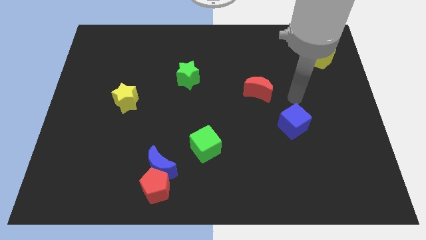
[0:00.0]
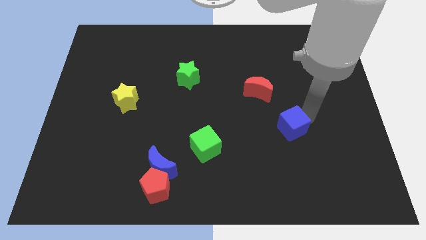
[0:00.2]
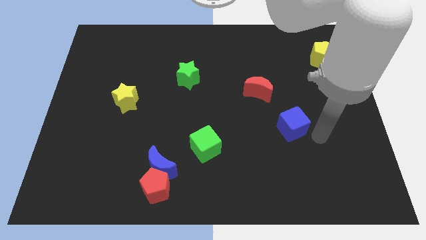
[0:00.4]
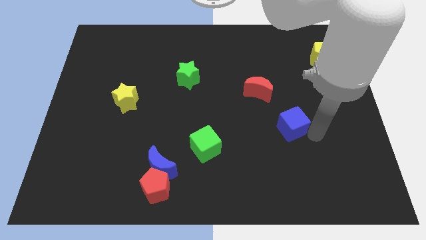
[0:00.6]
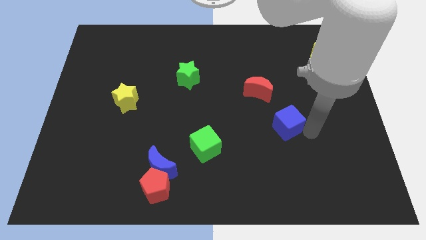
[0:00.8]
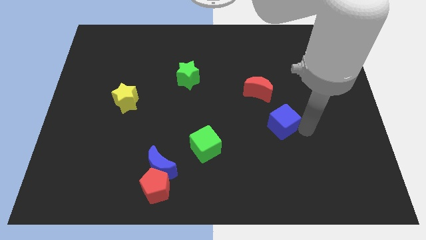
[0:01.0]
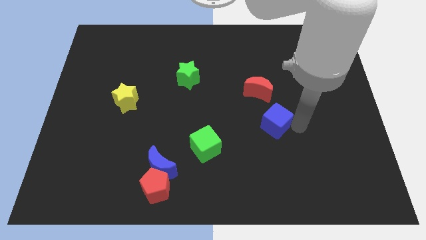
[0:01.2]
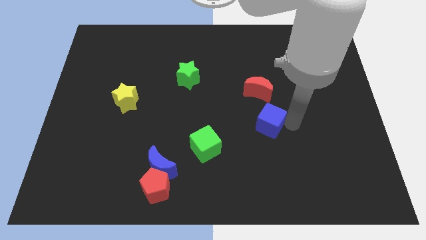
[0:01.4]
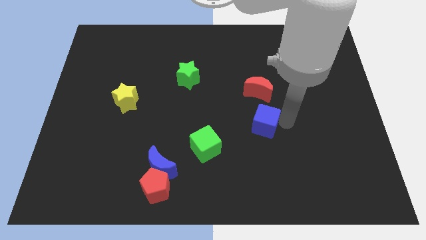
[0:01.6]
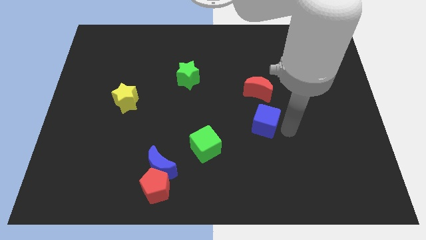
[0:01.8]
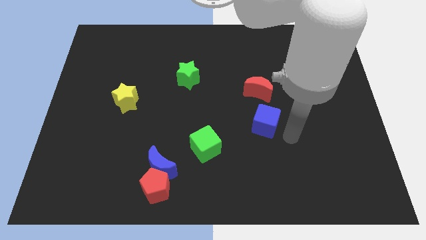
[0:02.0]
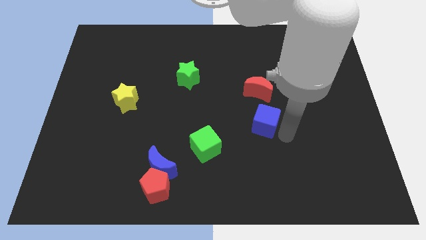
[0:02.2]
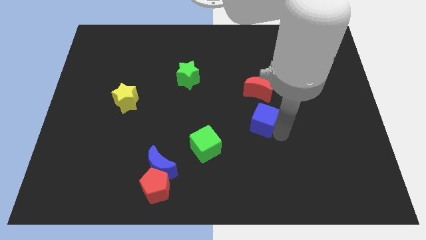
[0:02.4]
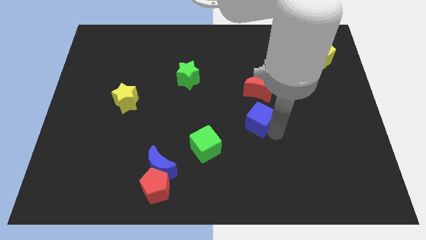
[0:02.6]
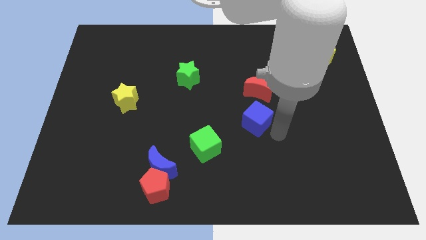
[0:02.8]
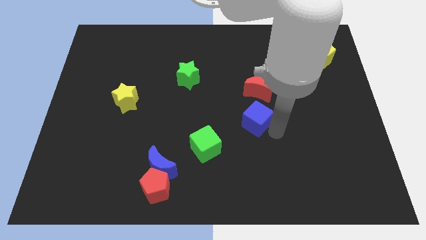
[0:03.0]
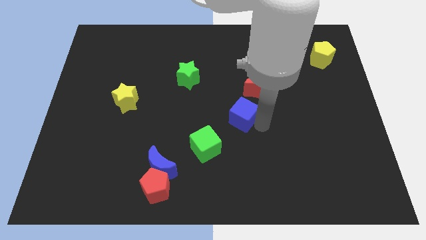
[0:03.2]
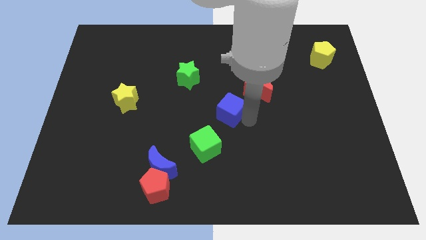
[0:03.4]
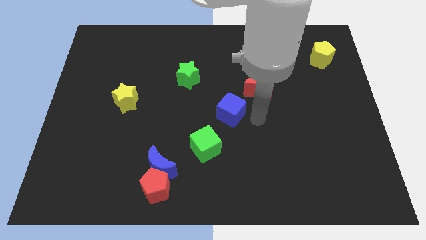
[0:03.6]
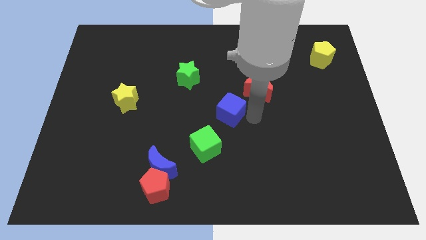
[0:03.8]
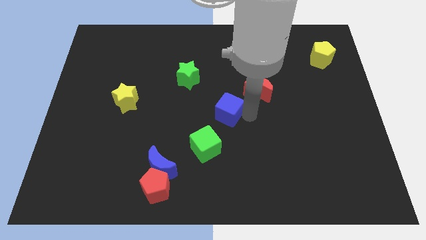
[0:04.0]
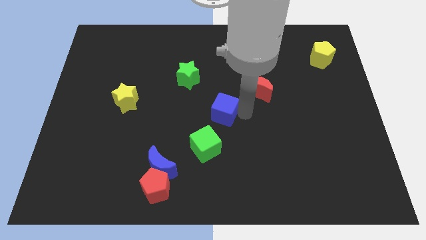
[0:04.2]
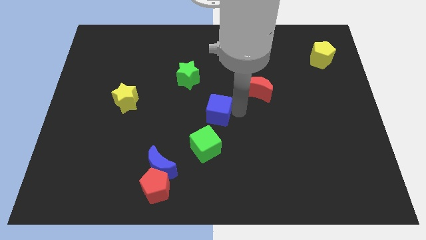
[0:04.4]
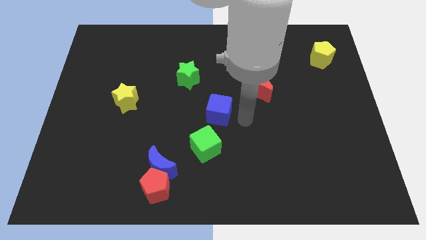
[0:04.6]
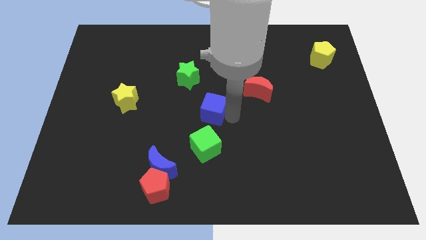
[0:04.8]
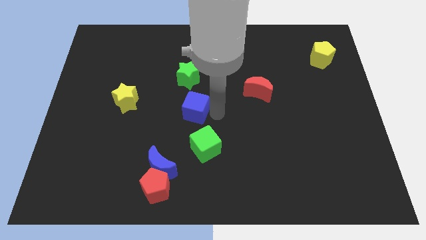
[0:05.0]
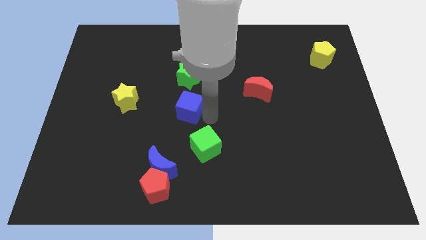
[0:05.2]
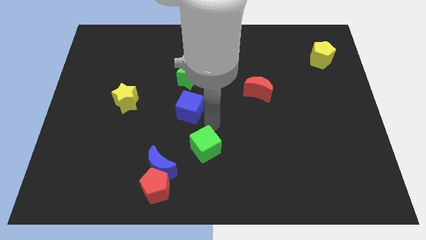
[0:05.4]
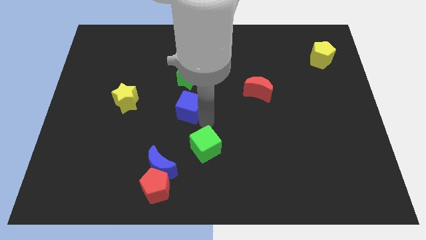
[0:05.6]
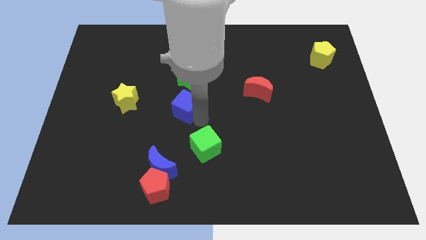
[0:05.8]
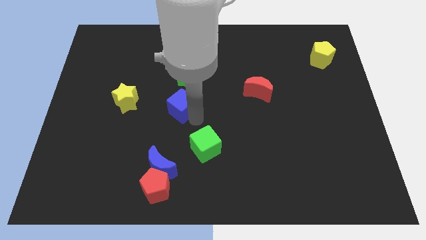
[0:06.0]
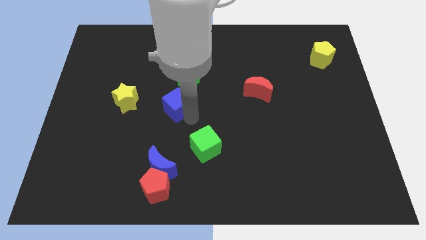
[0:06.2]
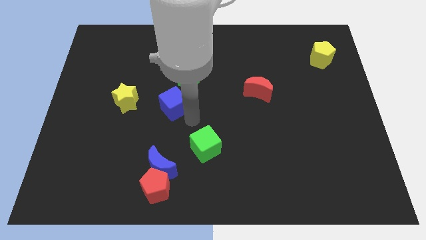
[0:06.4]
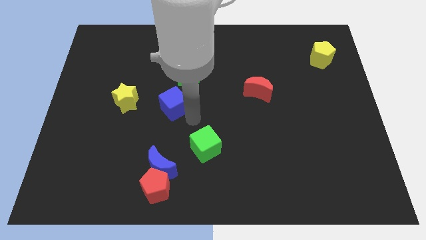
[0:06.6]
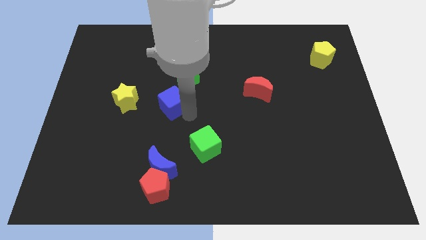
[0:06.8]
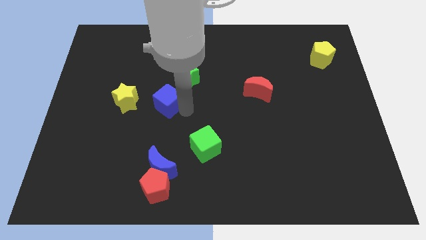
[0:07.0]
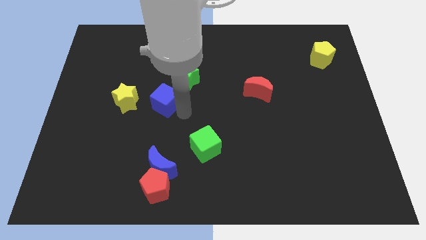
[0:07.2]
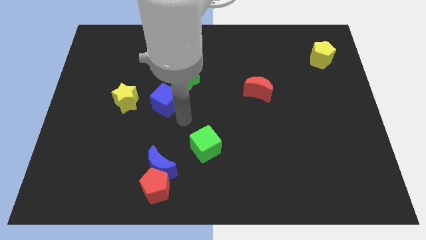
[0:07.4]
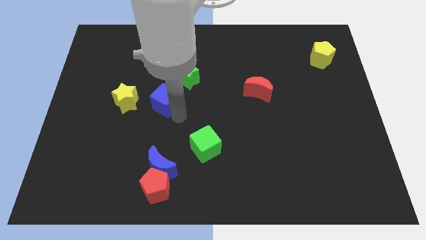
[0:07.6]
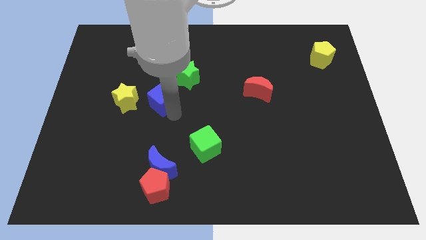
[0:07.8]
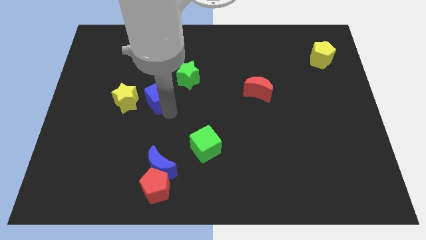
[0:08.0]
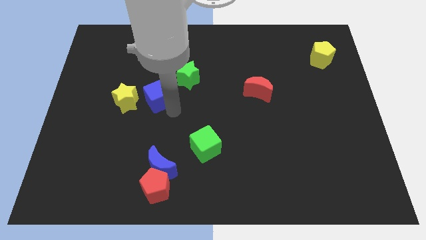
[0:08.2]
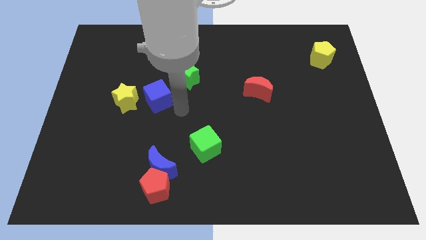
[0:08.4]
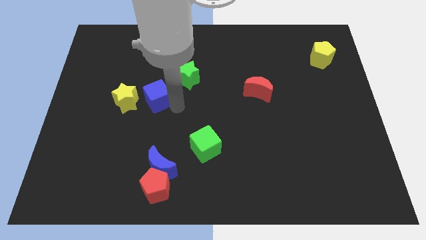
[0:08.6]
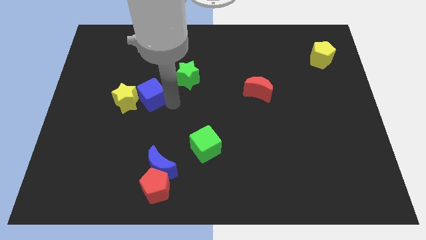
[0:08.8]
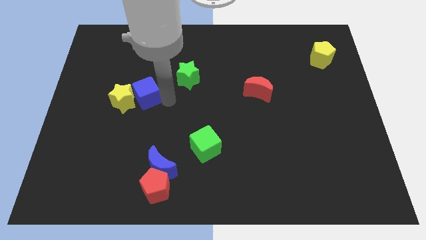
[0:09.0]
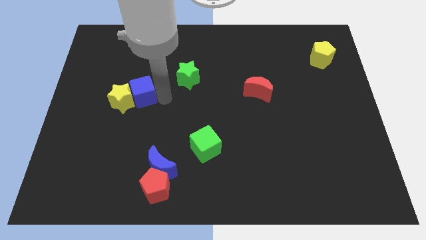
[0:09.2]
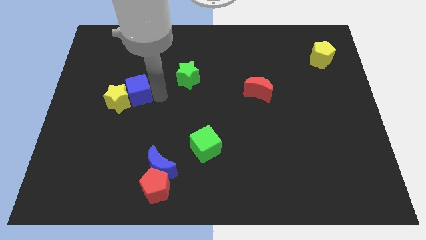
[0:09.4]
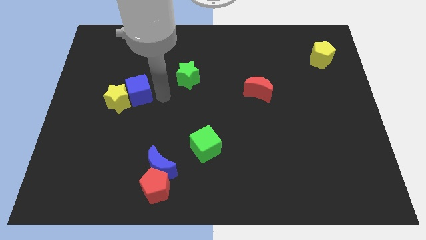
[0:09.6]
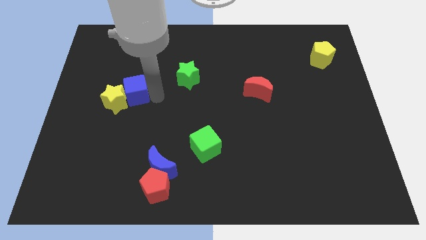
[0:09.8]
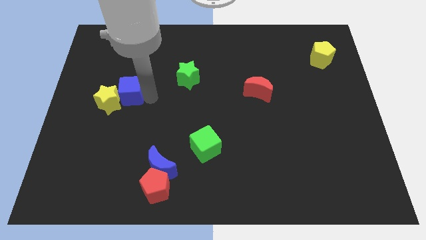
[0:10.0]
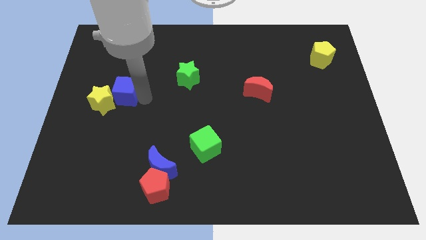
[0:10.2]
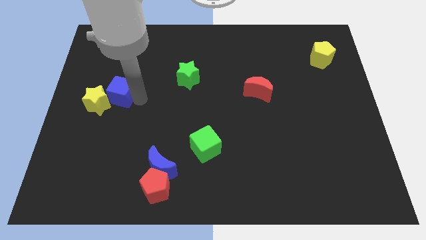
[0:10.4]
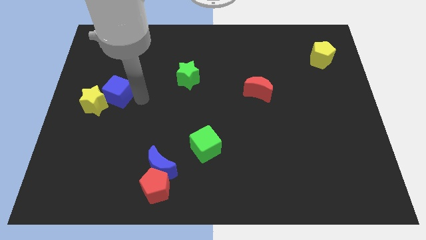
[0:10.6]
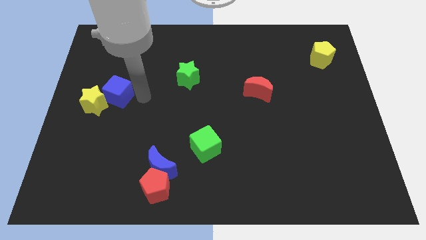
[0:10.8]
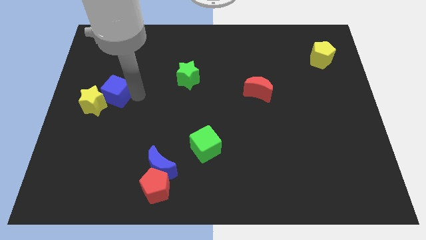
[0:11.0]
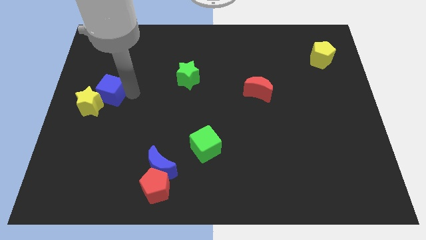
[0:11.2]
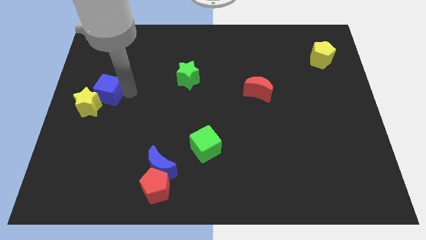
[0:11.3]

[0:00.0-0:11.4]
move the blue cube to the left side of the board

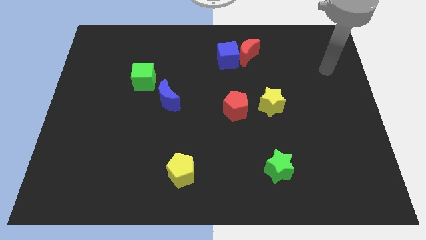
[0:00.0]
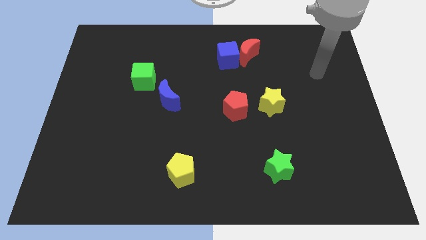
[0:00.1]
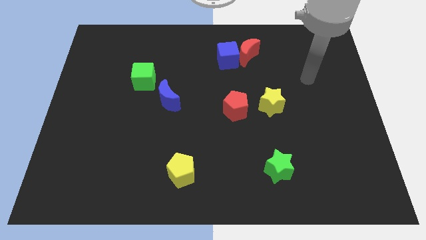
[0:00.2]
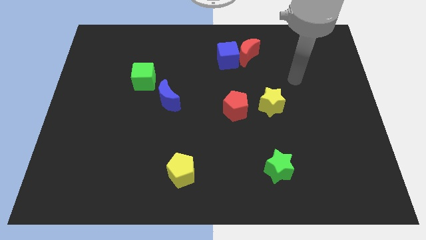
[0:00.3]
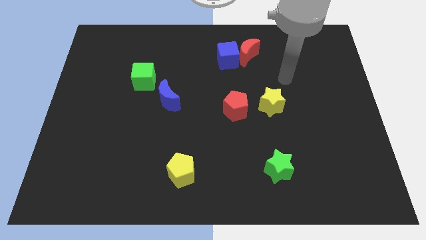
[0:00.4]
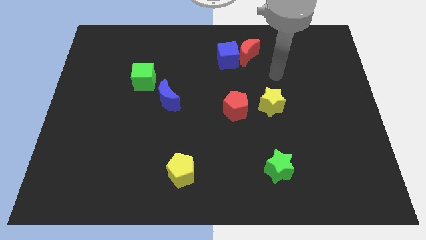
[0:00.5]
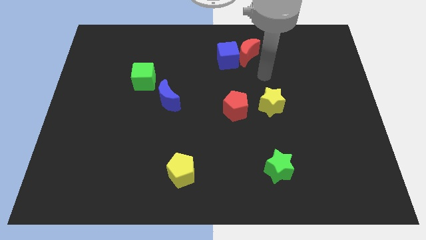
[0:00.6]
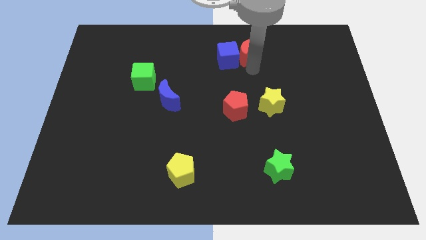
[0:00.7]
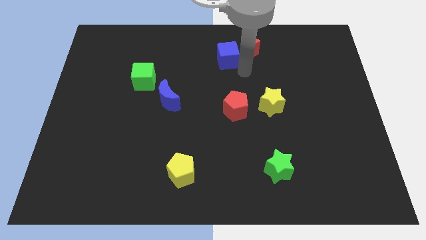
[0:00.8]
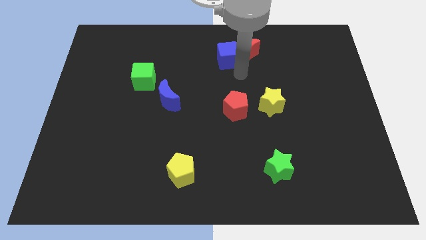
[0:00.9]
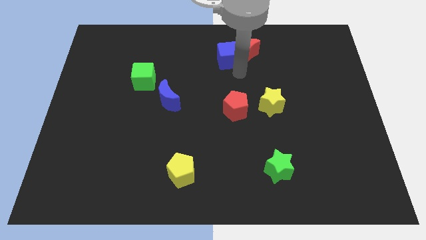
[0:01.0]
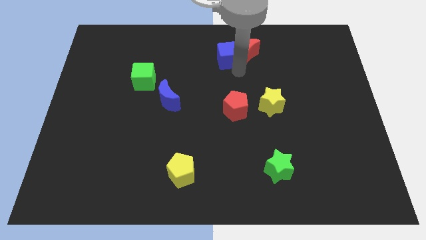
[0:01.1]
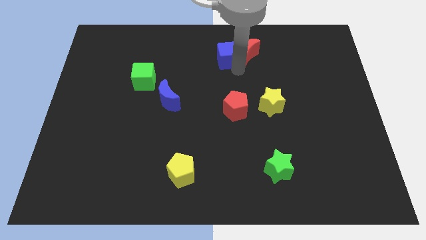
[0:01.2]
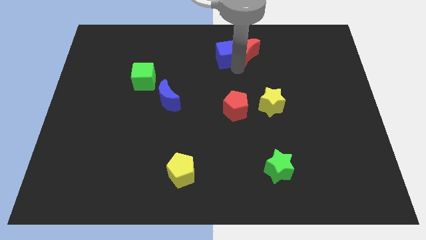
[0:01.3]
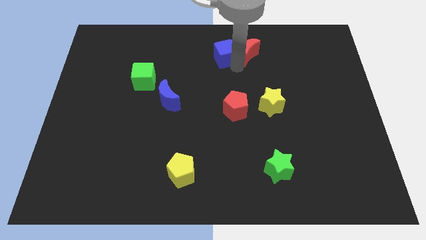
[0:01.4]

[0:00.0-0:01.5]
slide the blue cube to the towards your base
